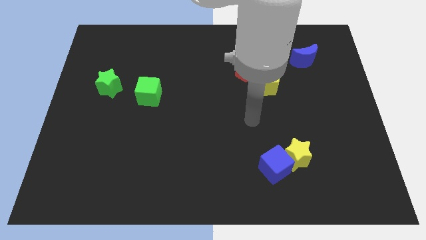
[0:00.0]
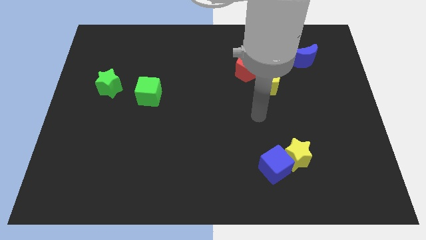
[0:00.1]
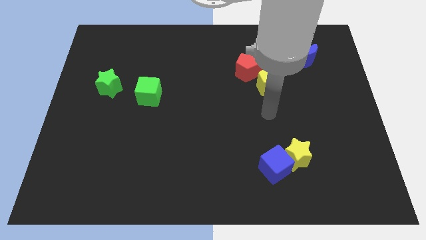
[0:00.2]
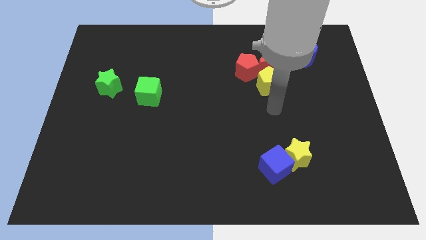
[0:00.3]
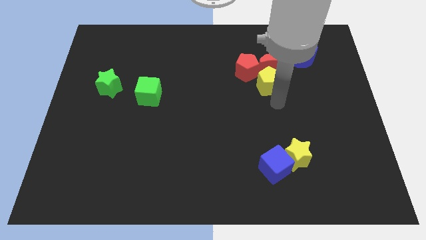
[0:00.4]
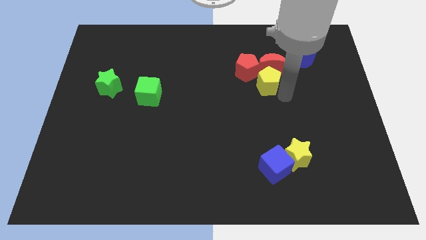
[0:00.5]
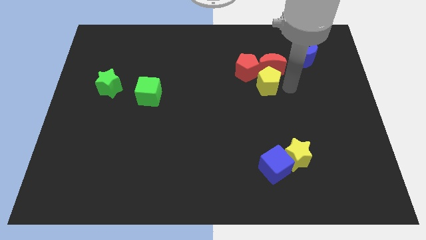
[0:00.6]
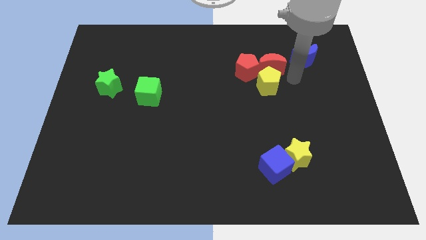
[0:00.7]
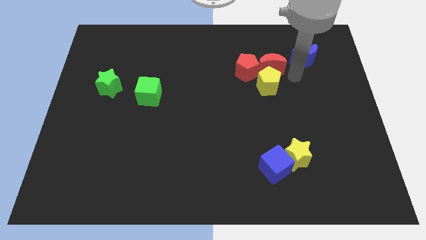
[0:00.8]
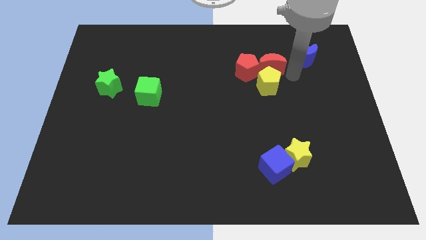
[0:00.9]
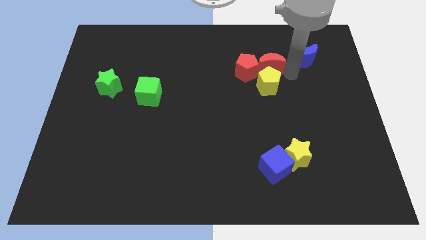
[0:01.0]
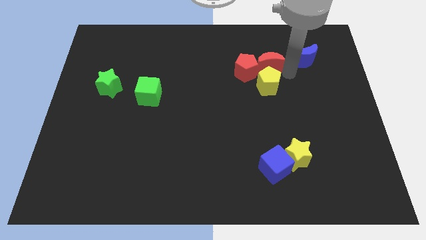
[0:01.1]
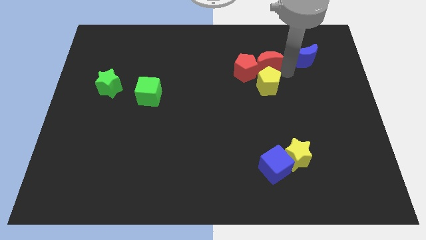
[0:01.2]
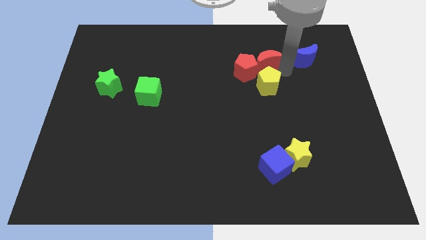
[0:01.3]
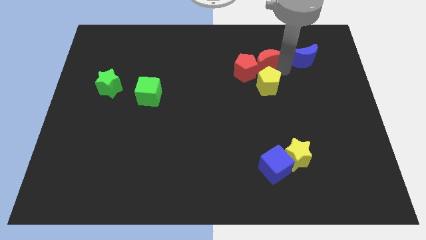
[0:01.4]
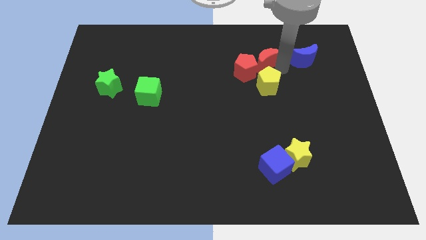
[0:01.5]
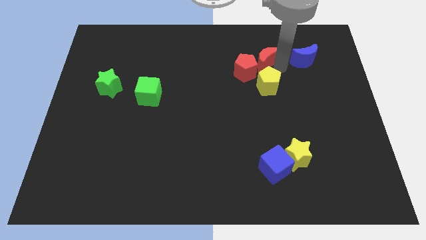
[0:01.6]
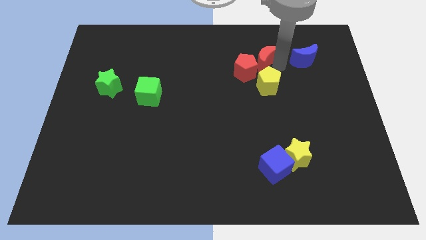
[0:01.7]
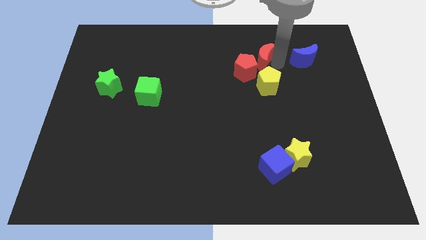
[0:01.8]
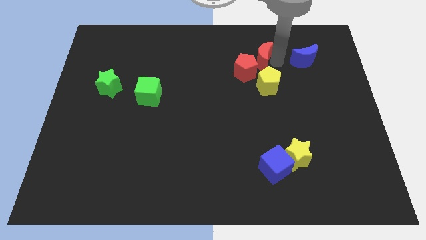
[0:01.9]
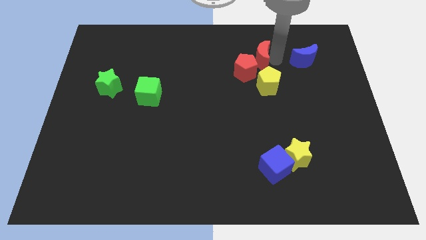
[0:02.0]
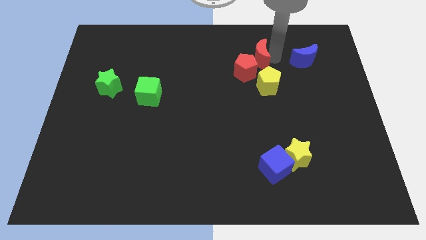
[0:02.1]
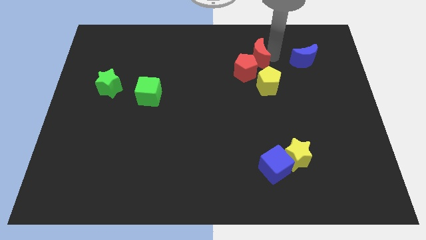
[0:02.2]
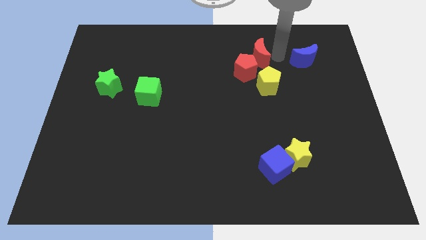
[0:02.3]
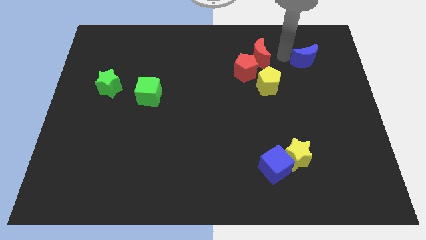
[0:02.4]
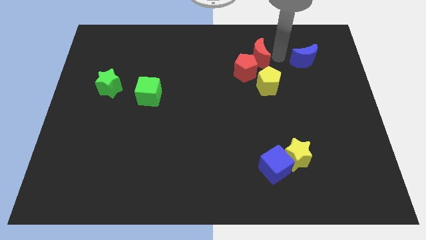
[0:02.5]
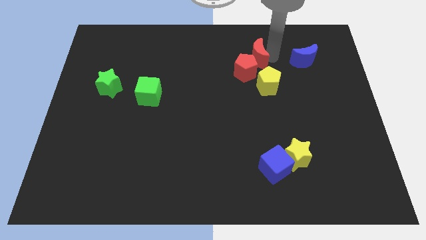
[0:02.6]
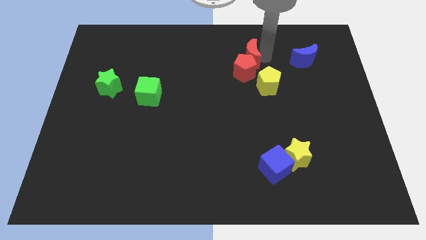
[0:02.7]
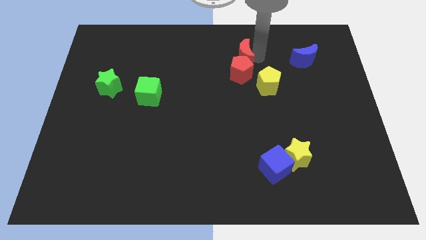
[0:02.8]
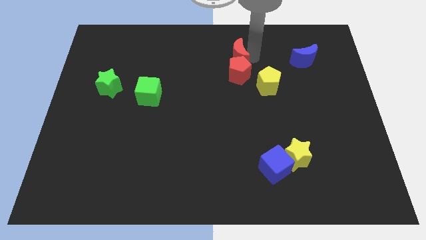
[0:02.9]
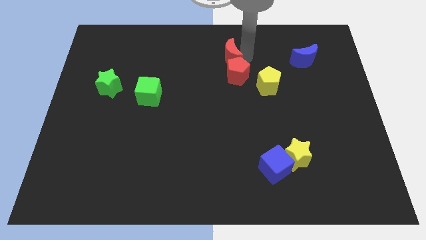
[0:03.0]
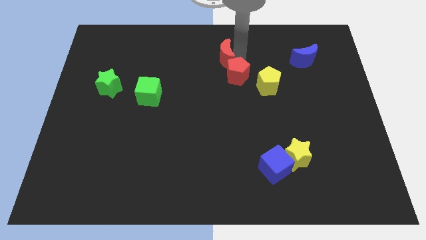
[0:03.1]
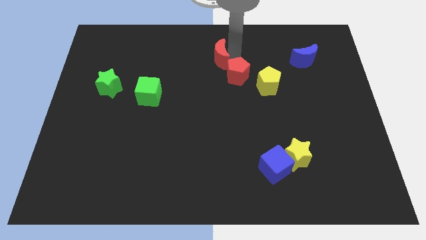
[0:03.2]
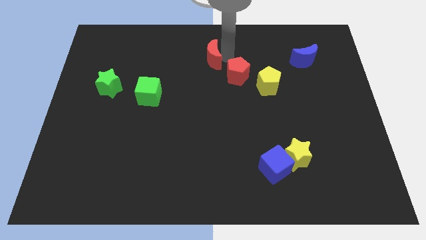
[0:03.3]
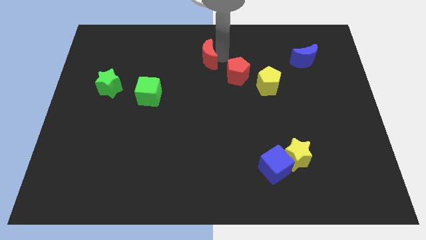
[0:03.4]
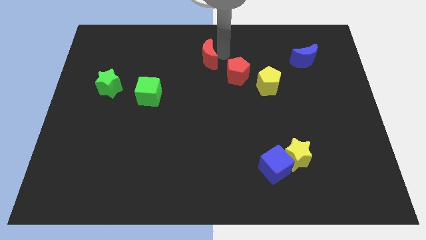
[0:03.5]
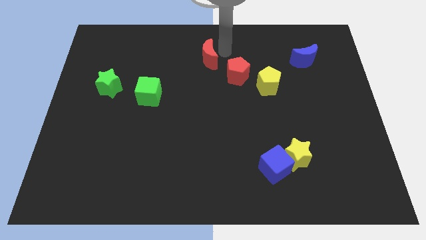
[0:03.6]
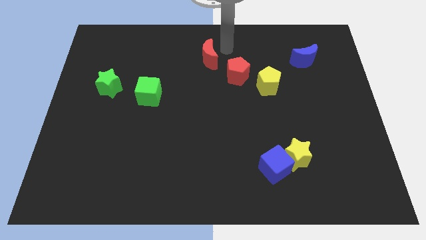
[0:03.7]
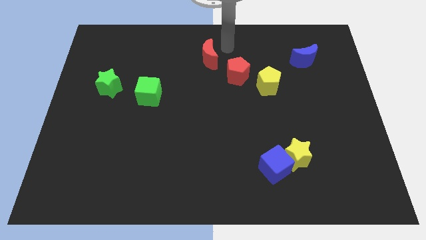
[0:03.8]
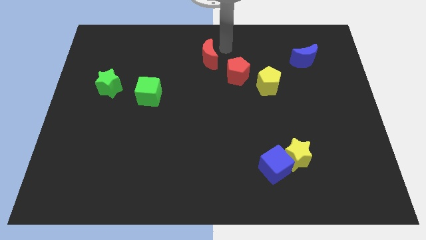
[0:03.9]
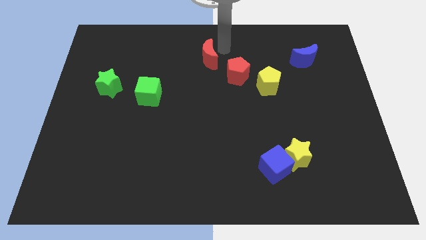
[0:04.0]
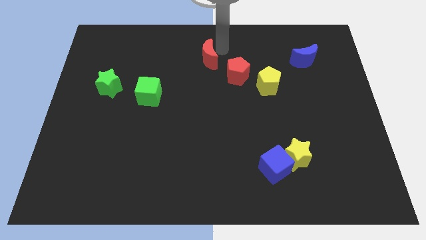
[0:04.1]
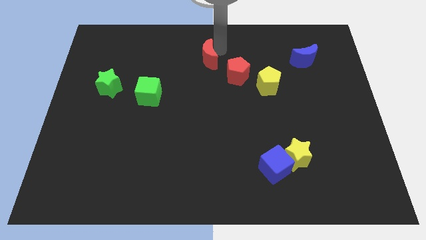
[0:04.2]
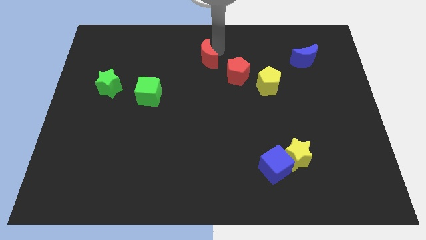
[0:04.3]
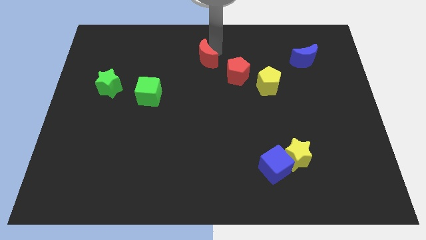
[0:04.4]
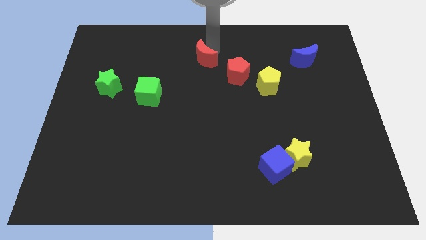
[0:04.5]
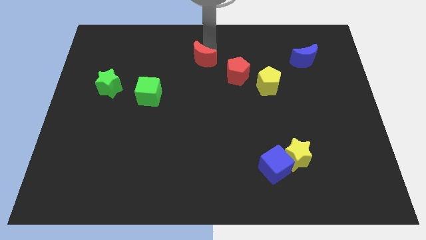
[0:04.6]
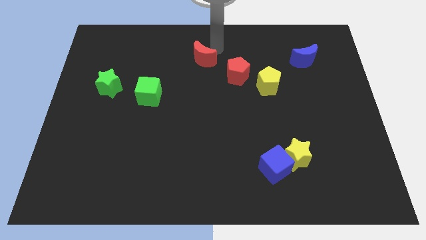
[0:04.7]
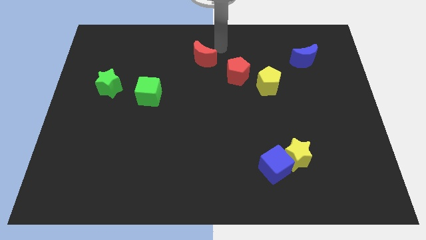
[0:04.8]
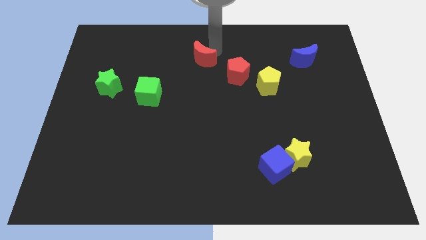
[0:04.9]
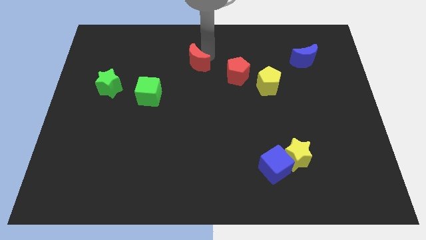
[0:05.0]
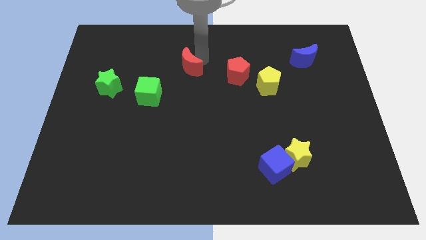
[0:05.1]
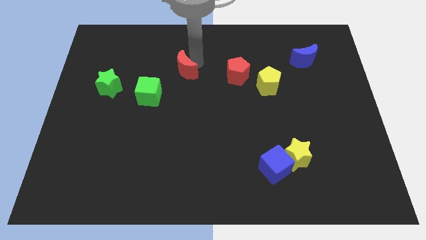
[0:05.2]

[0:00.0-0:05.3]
put the red moon diagonally up and to the right of the green cube

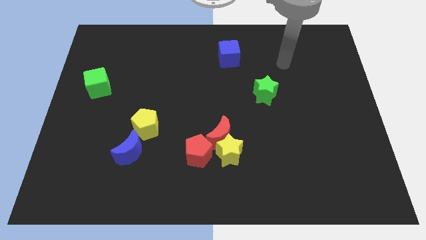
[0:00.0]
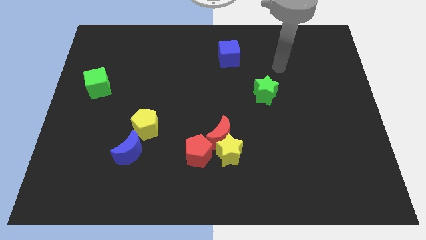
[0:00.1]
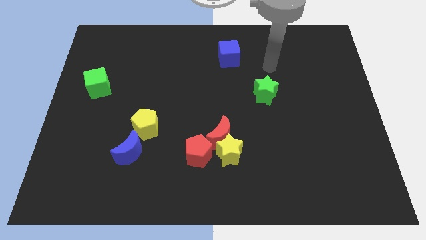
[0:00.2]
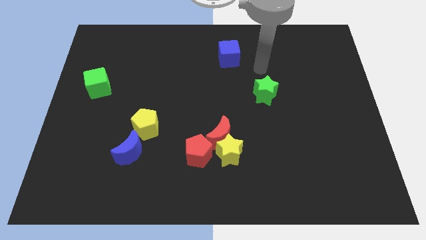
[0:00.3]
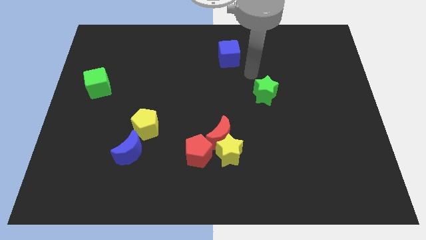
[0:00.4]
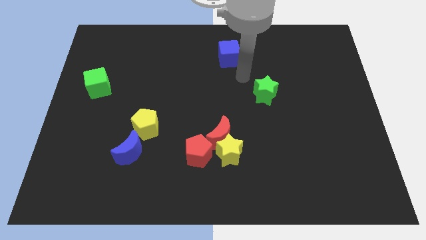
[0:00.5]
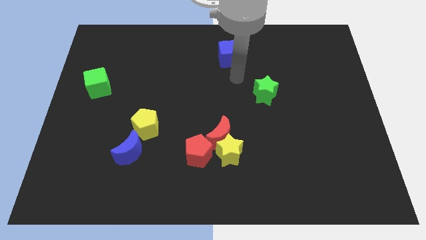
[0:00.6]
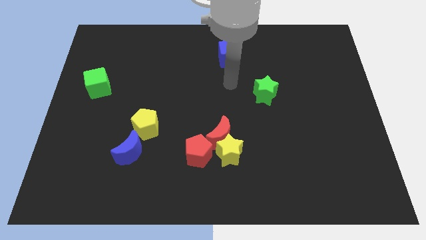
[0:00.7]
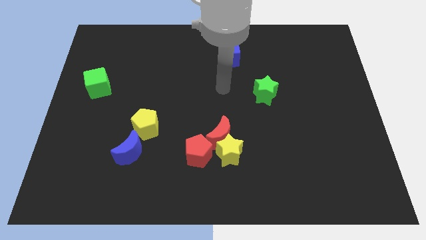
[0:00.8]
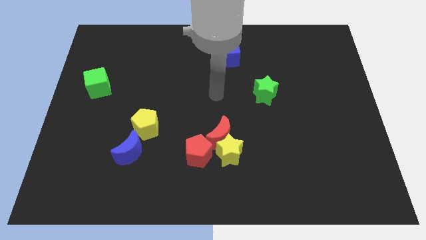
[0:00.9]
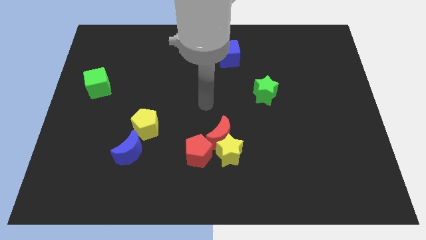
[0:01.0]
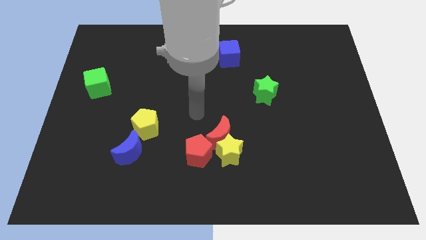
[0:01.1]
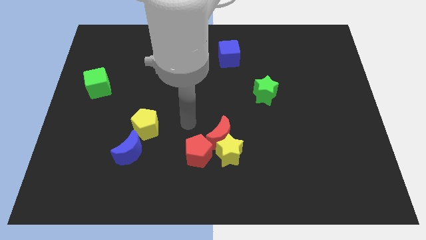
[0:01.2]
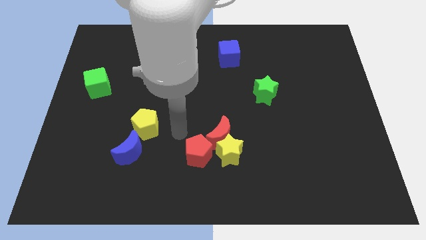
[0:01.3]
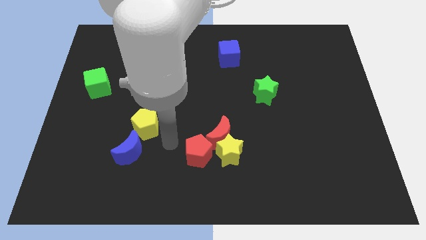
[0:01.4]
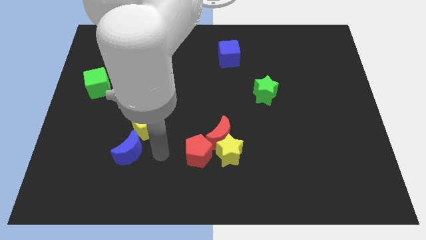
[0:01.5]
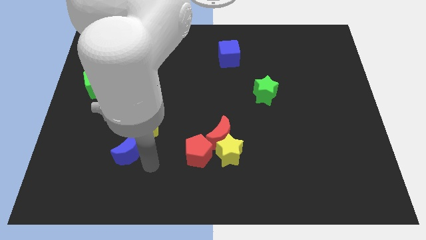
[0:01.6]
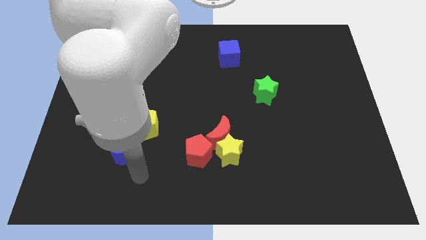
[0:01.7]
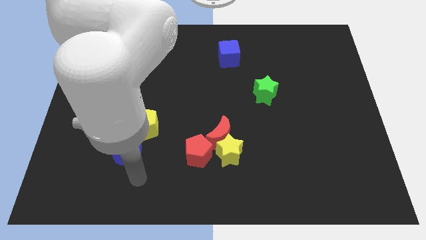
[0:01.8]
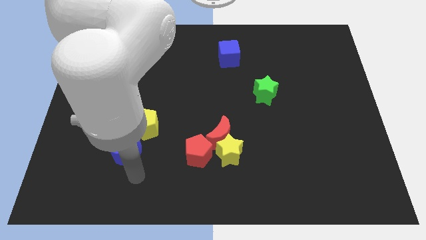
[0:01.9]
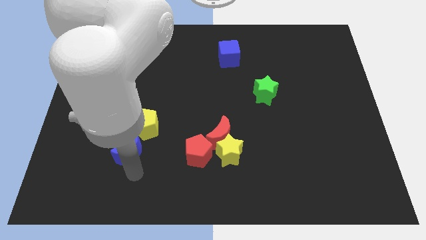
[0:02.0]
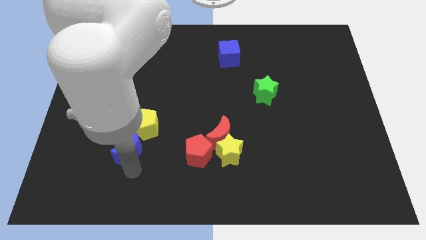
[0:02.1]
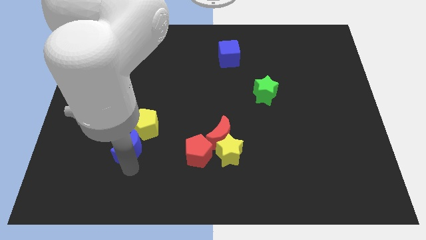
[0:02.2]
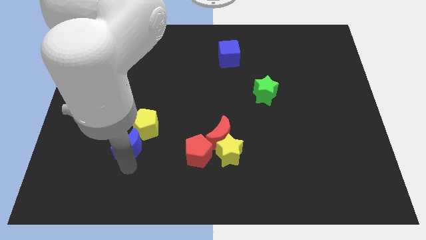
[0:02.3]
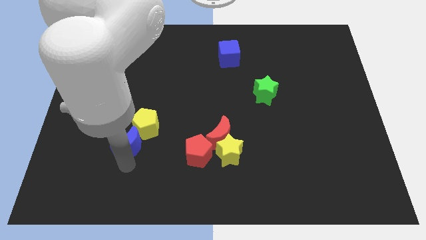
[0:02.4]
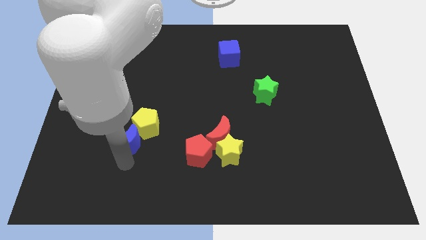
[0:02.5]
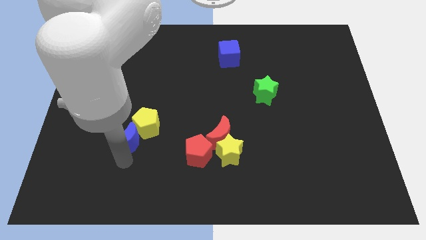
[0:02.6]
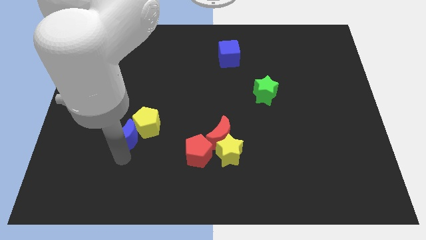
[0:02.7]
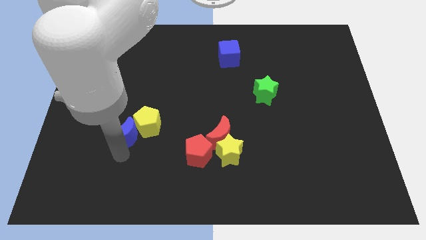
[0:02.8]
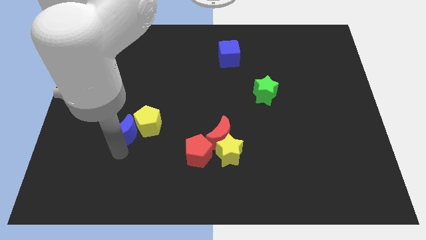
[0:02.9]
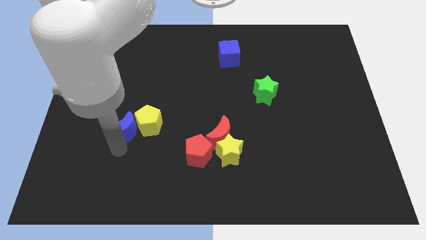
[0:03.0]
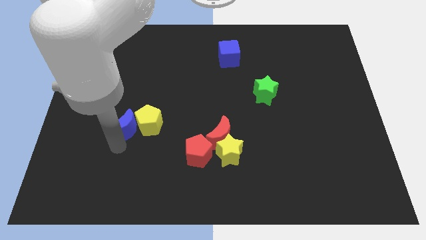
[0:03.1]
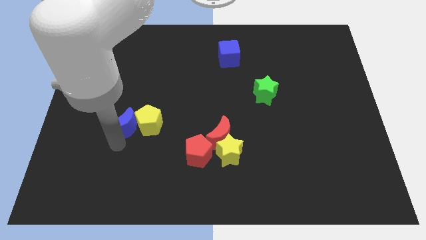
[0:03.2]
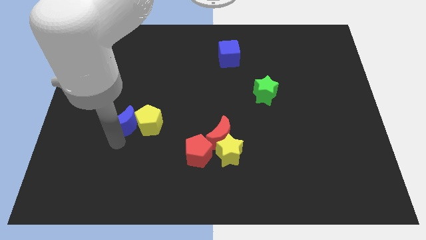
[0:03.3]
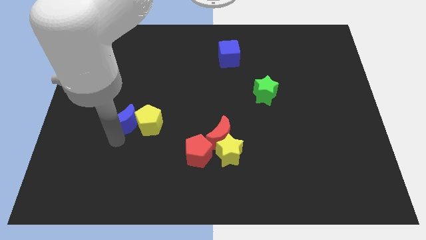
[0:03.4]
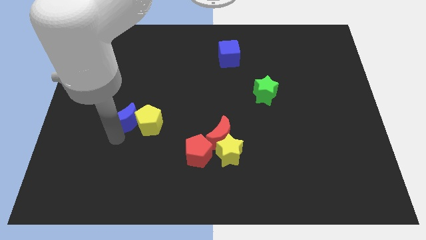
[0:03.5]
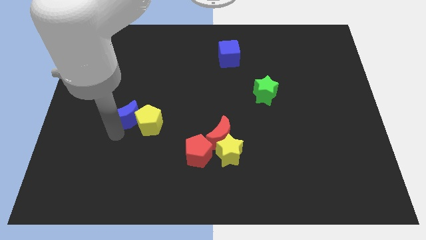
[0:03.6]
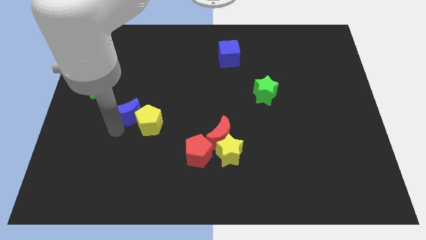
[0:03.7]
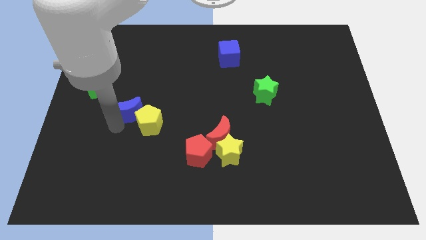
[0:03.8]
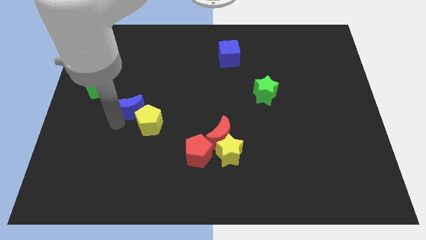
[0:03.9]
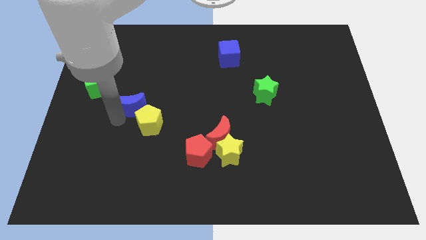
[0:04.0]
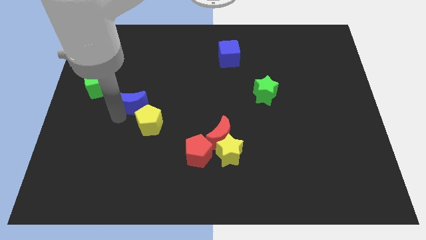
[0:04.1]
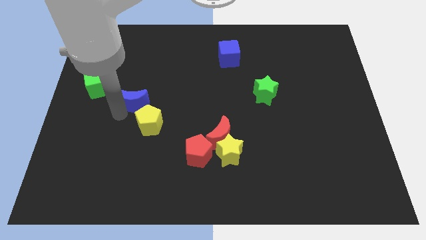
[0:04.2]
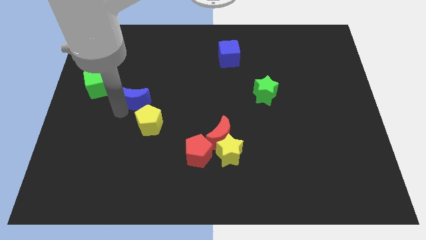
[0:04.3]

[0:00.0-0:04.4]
put the blue moon right of the green cube
